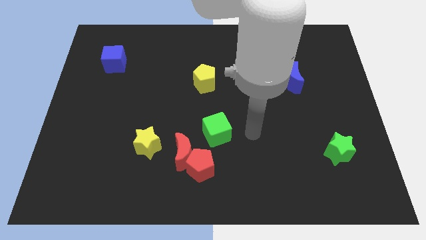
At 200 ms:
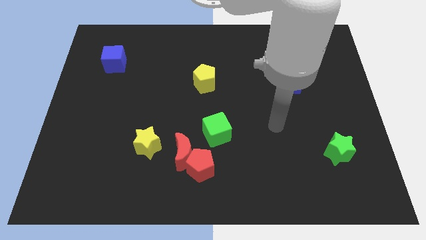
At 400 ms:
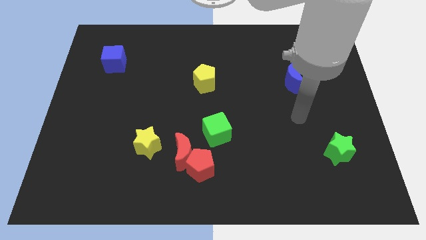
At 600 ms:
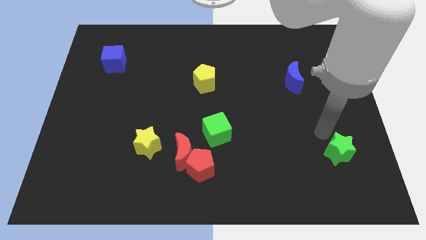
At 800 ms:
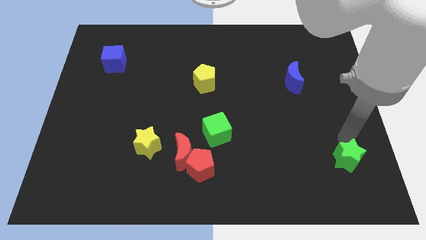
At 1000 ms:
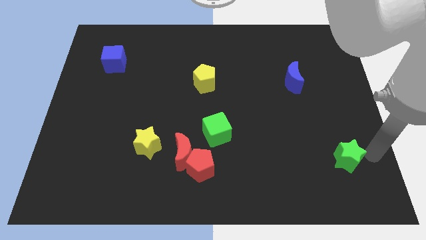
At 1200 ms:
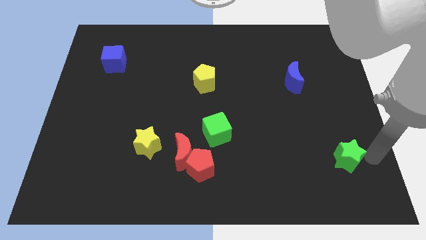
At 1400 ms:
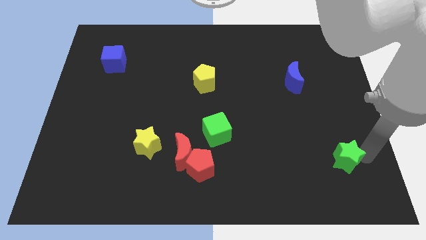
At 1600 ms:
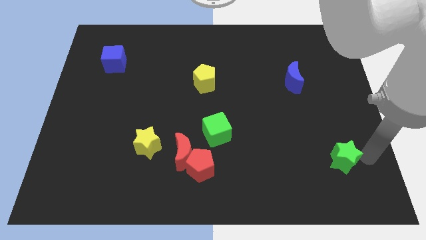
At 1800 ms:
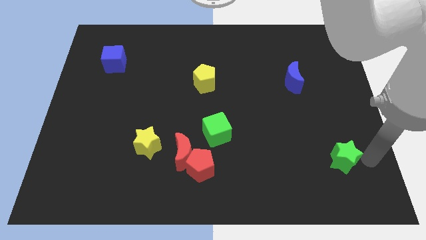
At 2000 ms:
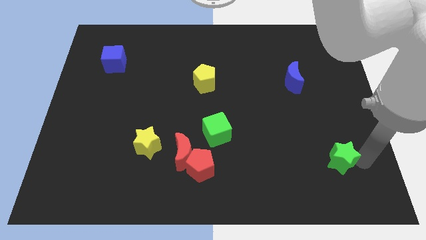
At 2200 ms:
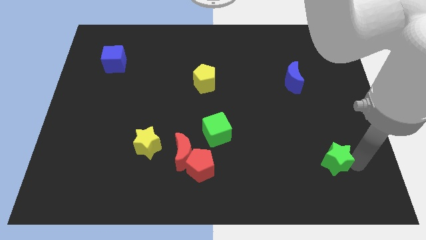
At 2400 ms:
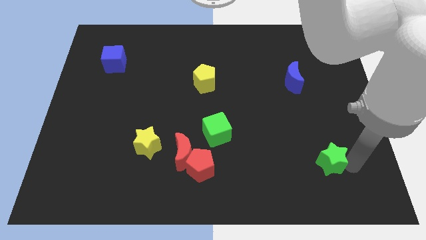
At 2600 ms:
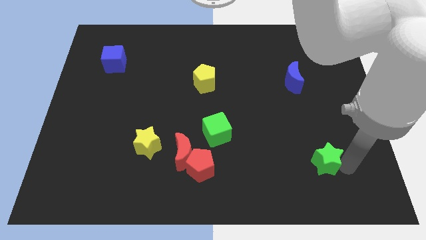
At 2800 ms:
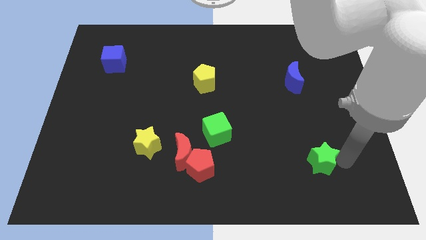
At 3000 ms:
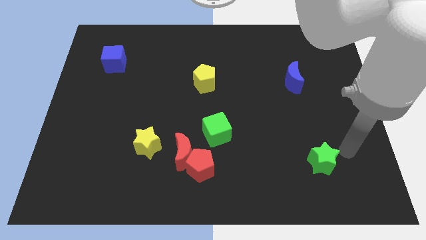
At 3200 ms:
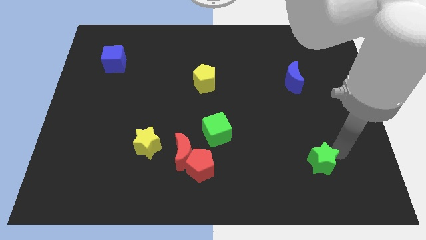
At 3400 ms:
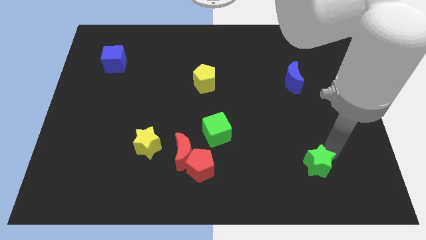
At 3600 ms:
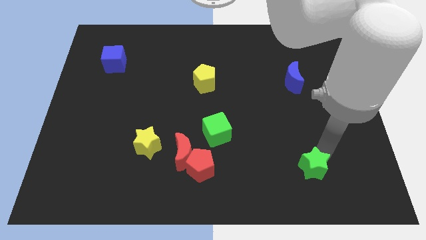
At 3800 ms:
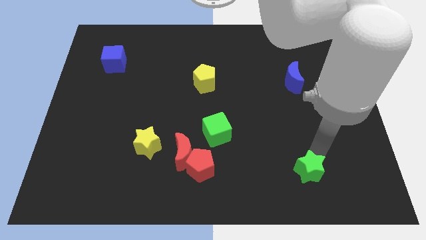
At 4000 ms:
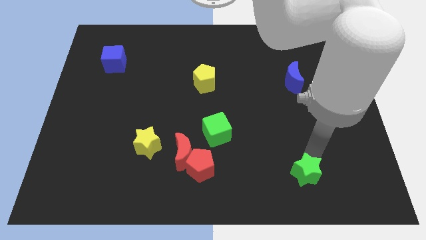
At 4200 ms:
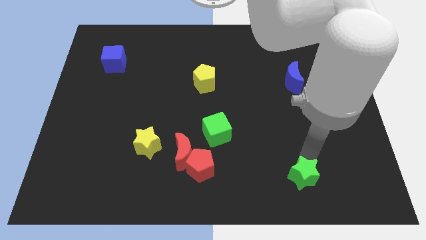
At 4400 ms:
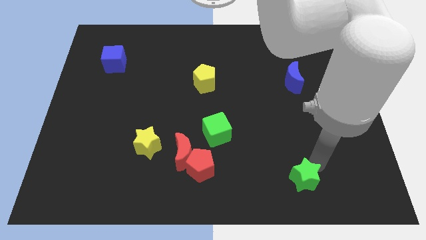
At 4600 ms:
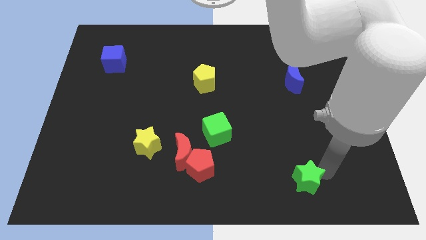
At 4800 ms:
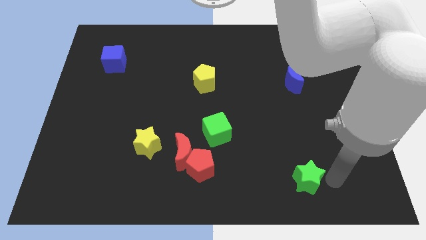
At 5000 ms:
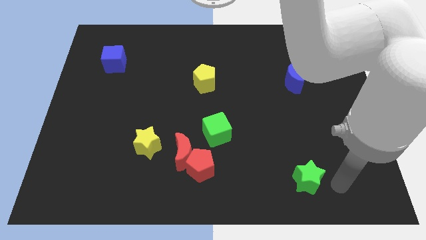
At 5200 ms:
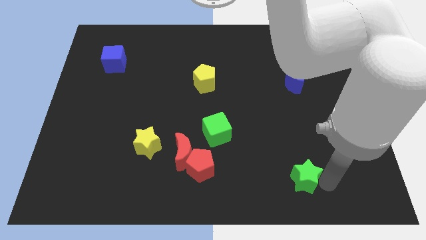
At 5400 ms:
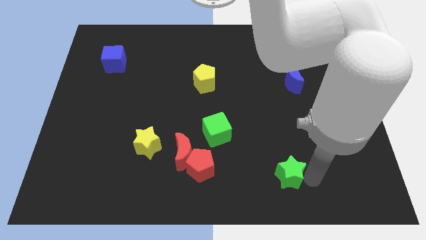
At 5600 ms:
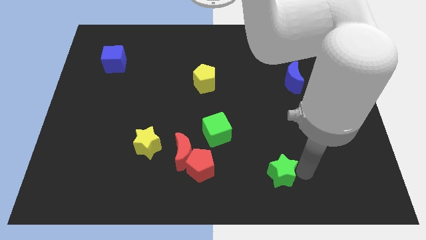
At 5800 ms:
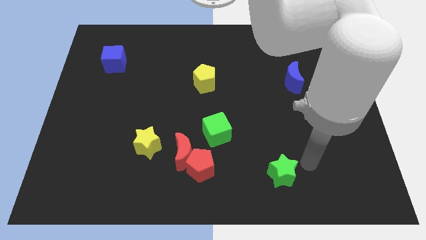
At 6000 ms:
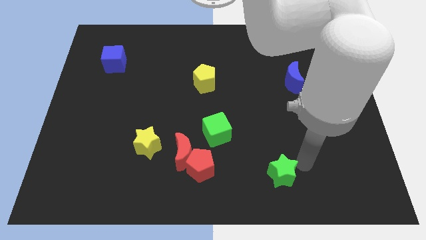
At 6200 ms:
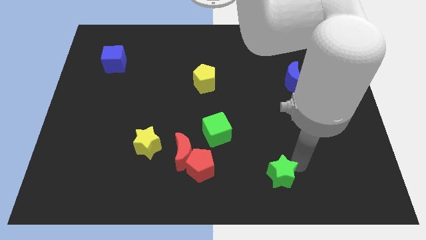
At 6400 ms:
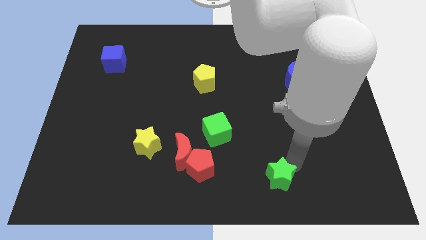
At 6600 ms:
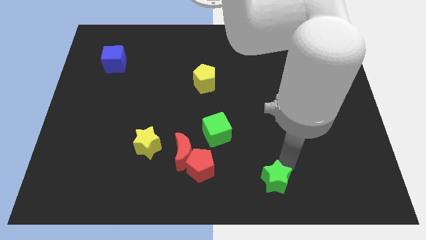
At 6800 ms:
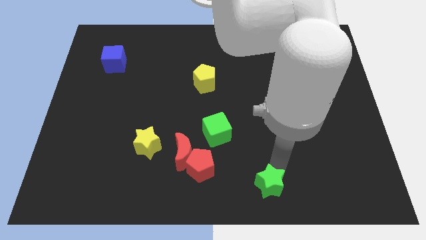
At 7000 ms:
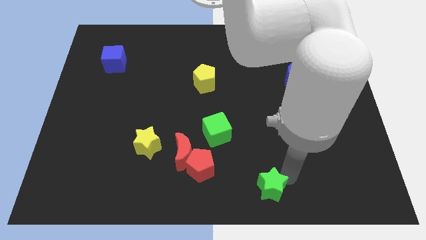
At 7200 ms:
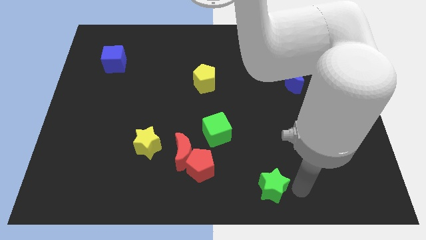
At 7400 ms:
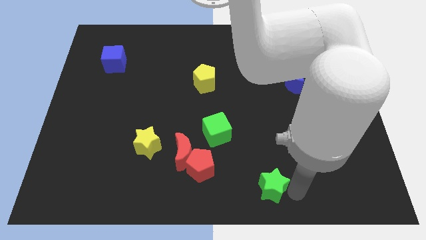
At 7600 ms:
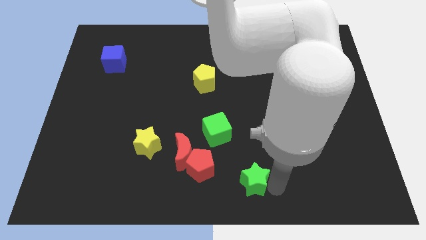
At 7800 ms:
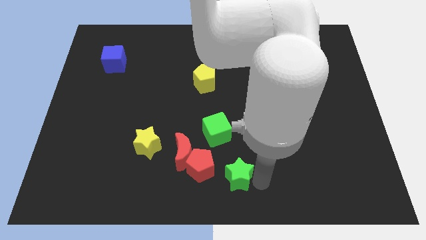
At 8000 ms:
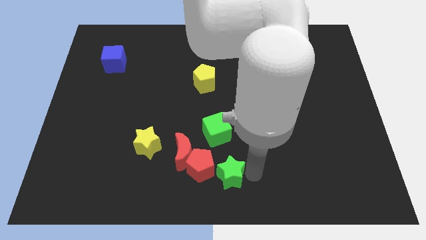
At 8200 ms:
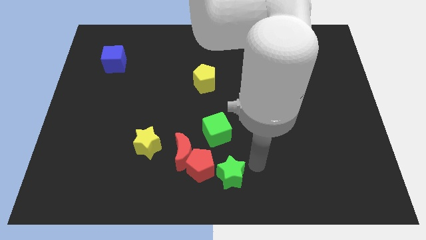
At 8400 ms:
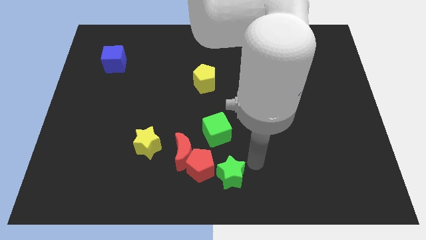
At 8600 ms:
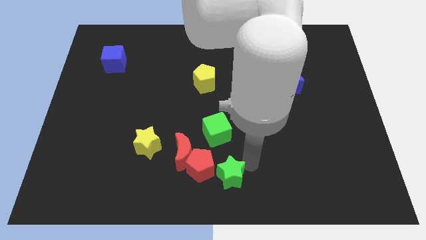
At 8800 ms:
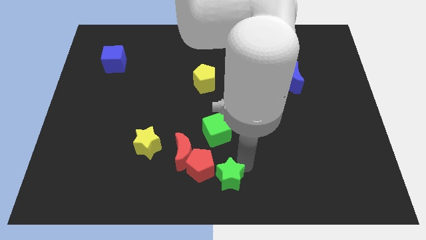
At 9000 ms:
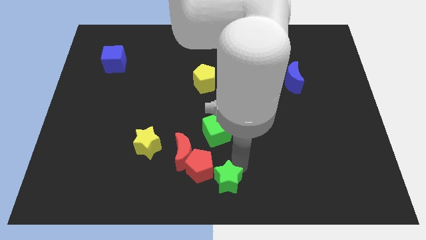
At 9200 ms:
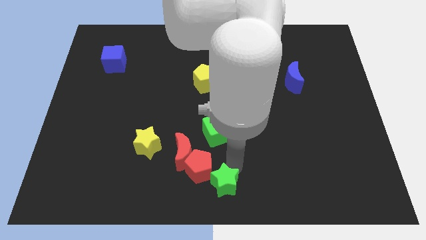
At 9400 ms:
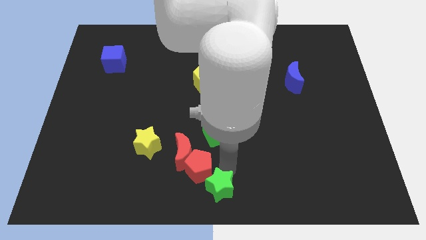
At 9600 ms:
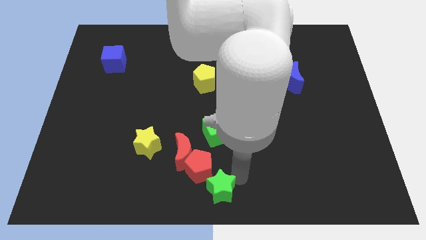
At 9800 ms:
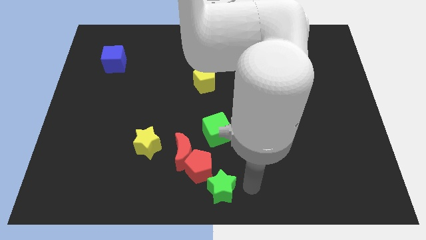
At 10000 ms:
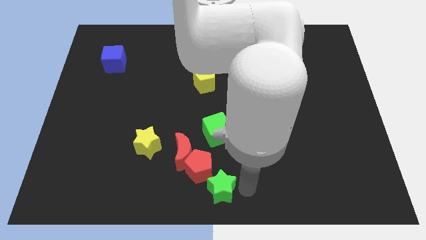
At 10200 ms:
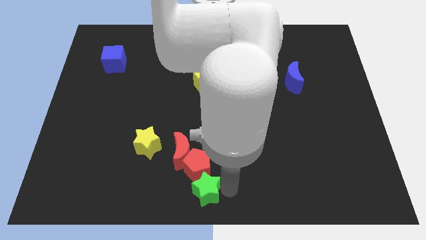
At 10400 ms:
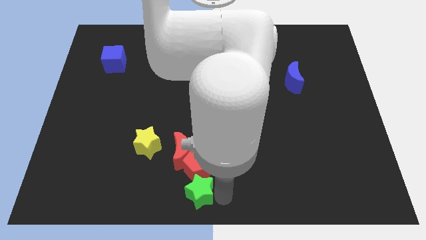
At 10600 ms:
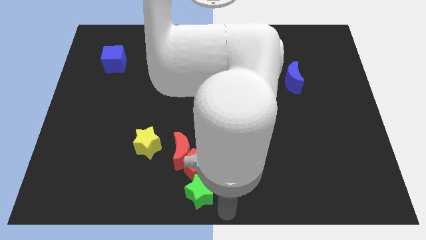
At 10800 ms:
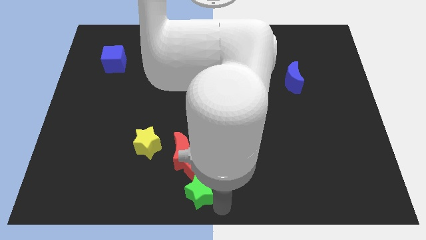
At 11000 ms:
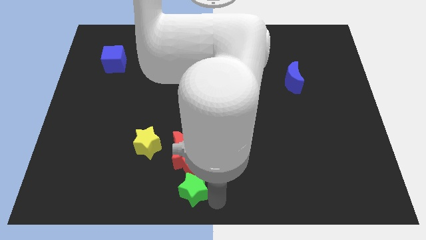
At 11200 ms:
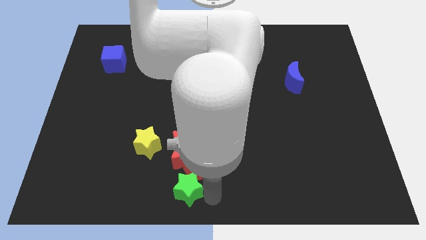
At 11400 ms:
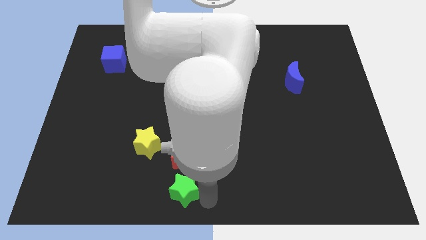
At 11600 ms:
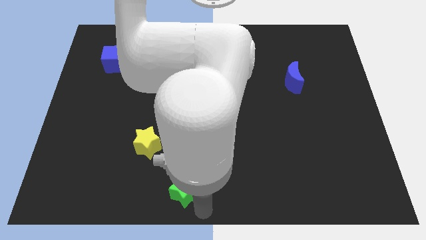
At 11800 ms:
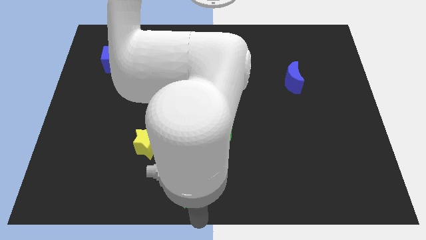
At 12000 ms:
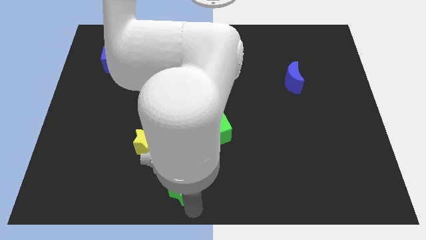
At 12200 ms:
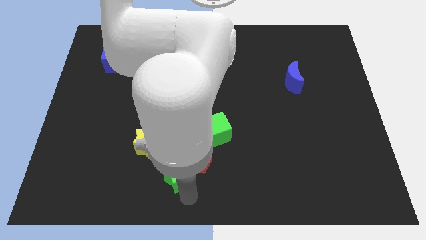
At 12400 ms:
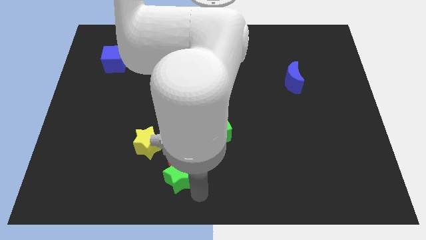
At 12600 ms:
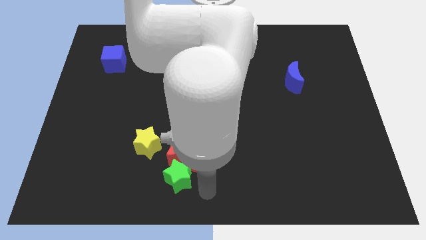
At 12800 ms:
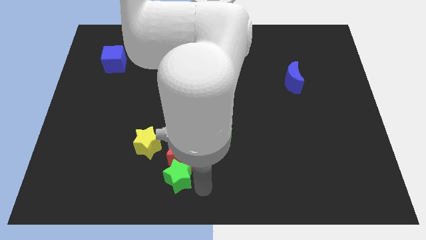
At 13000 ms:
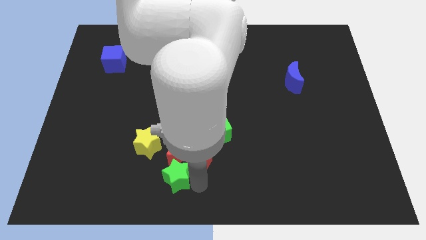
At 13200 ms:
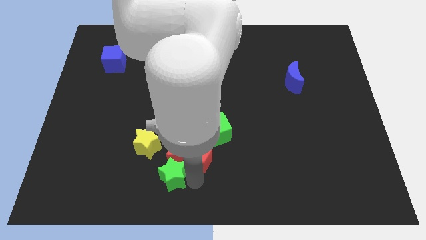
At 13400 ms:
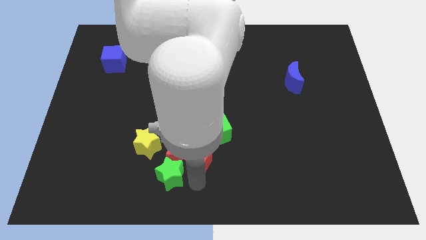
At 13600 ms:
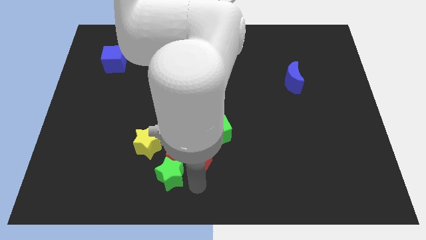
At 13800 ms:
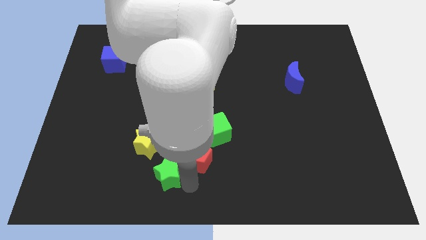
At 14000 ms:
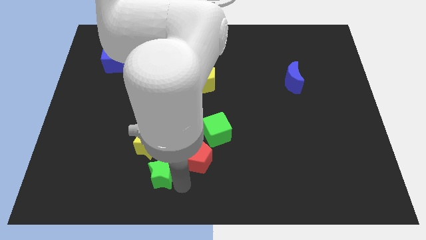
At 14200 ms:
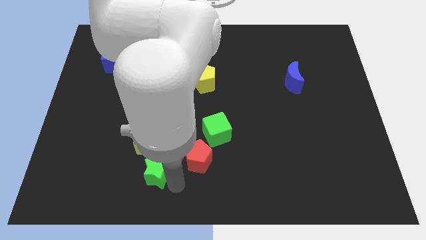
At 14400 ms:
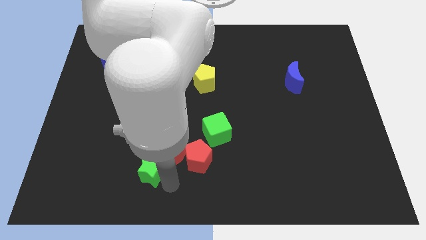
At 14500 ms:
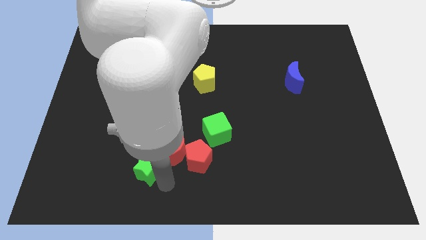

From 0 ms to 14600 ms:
put the green star just left of the red moon
